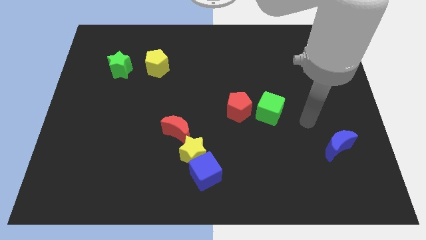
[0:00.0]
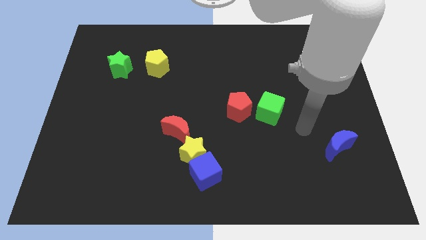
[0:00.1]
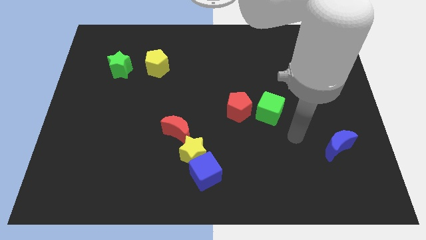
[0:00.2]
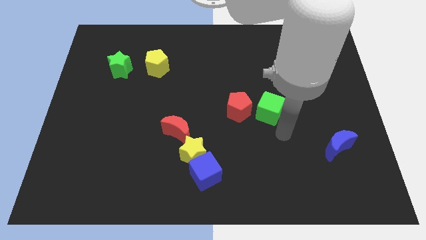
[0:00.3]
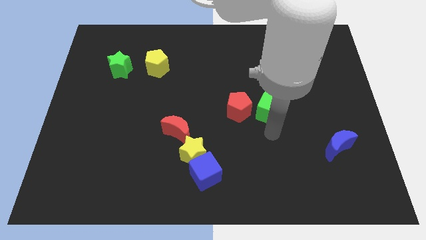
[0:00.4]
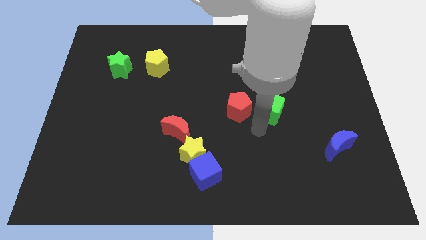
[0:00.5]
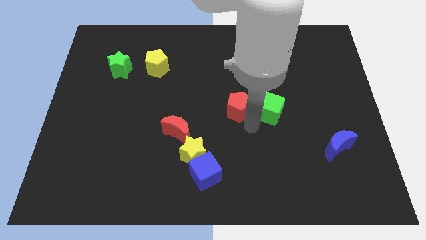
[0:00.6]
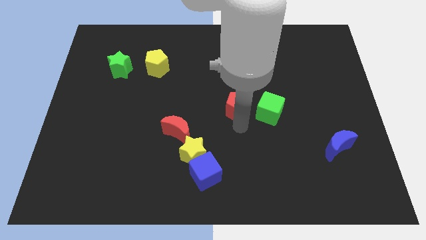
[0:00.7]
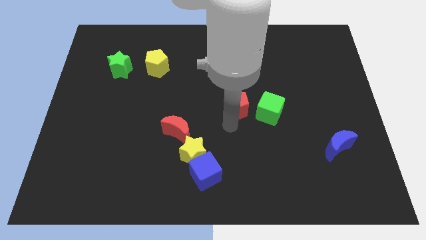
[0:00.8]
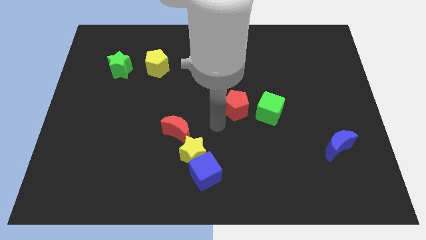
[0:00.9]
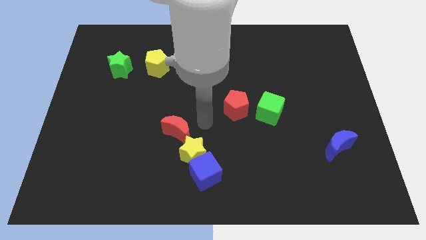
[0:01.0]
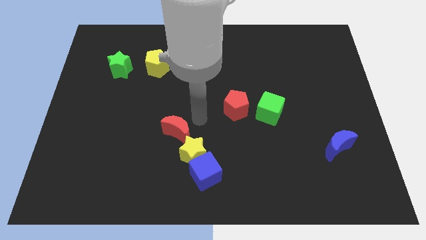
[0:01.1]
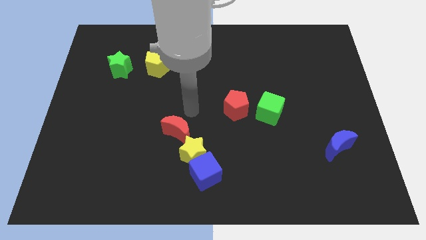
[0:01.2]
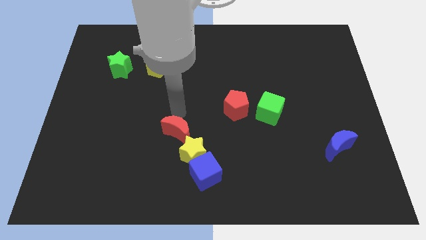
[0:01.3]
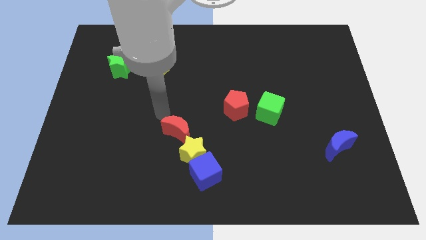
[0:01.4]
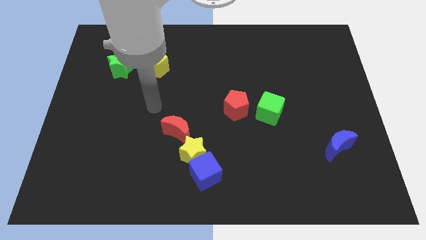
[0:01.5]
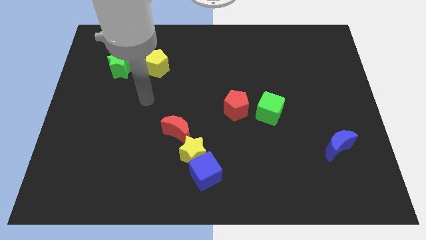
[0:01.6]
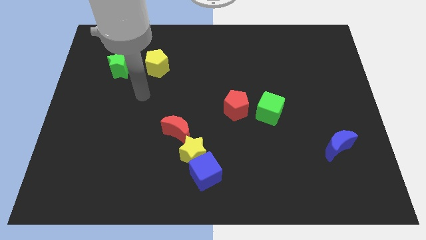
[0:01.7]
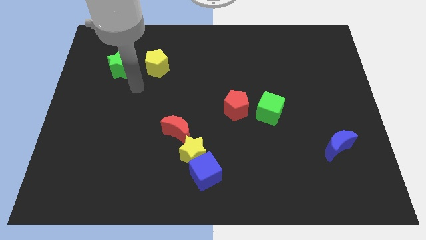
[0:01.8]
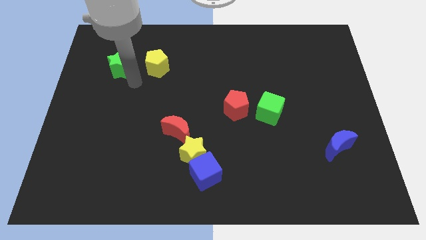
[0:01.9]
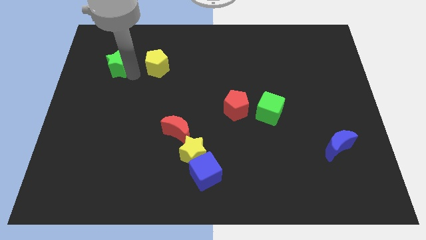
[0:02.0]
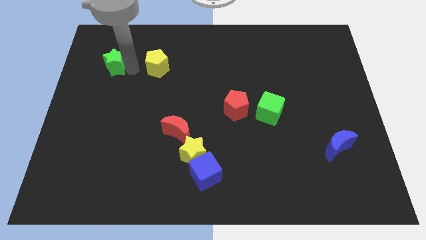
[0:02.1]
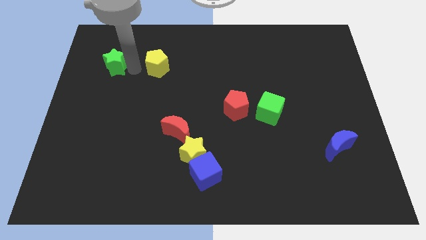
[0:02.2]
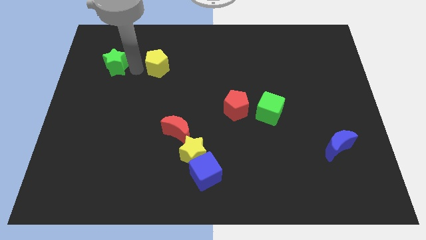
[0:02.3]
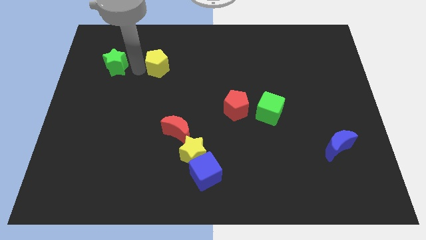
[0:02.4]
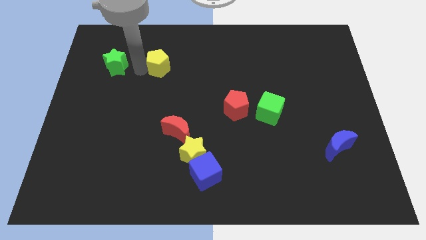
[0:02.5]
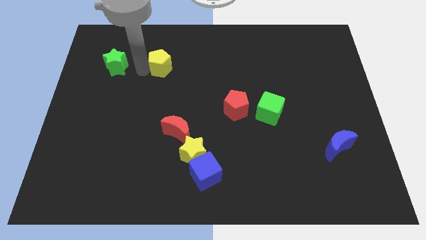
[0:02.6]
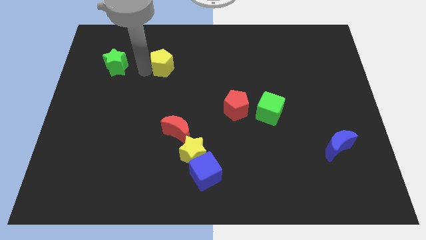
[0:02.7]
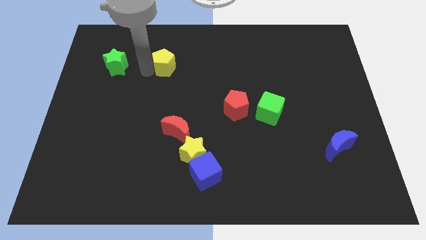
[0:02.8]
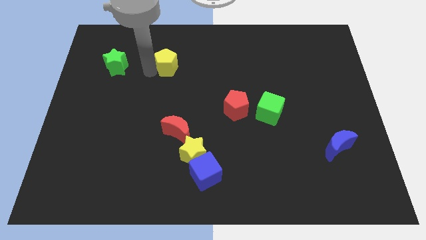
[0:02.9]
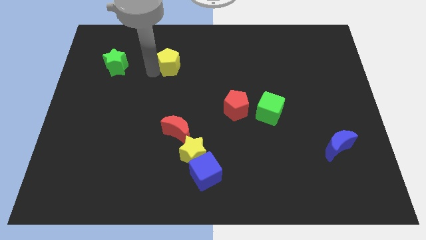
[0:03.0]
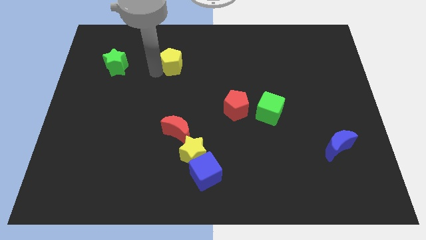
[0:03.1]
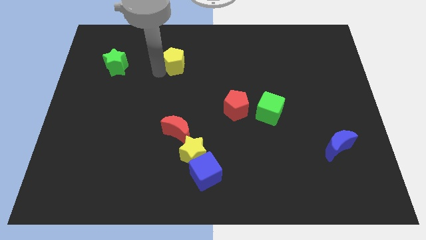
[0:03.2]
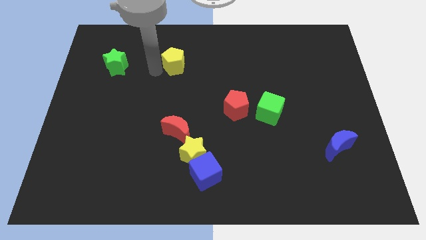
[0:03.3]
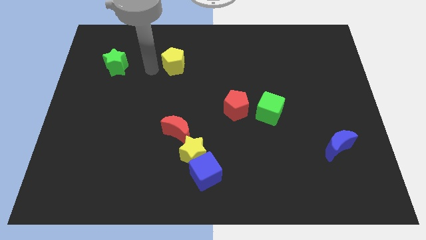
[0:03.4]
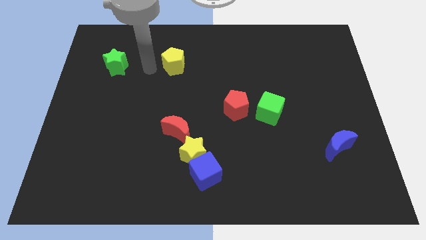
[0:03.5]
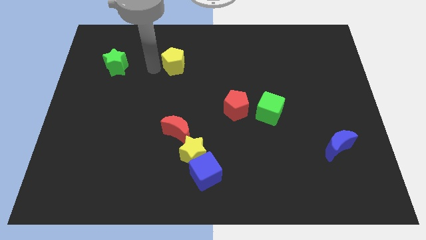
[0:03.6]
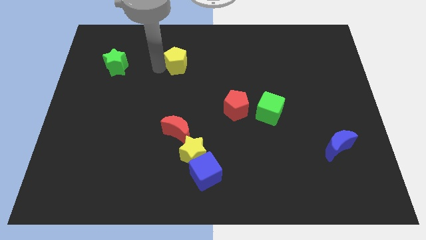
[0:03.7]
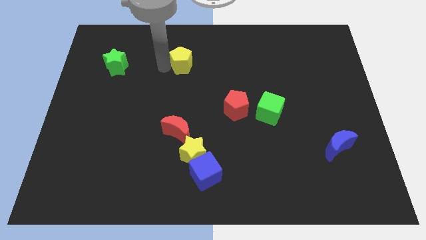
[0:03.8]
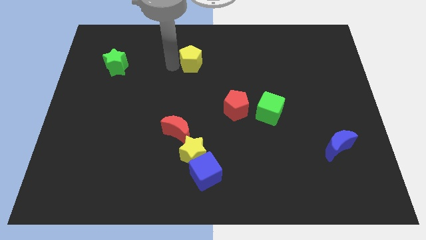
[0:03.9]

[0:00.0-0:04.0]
move the yellow pentagon right a bit

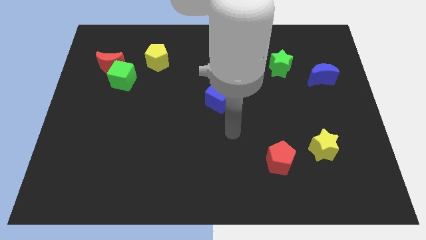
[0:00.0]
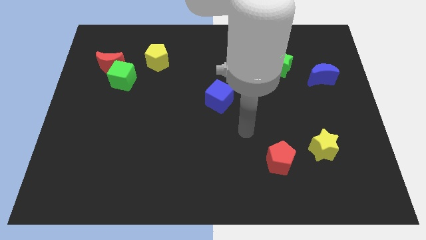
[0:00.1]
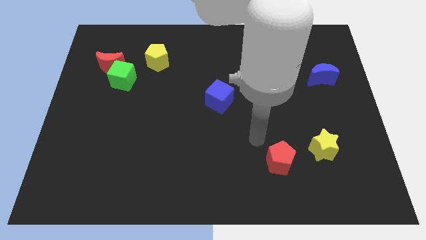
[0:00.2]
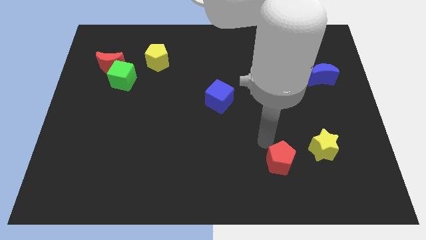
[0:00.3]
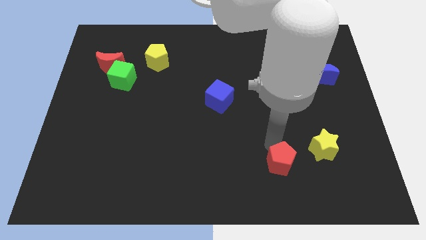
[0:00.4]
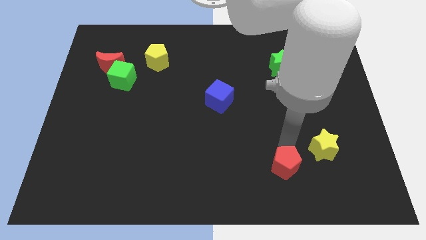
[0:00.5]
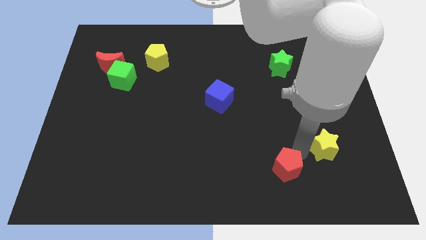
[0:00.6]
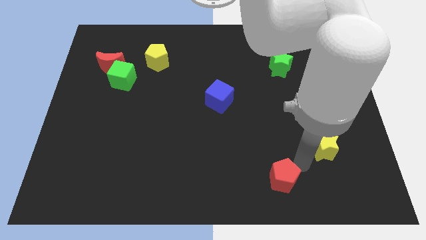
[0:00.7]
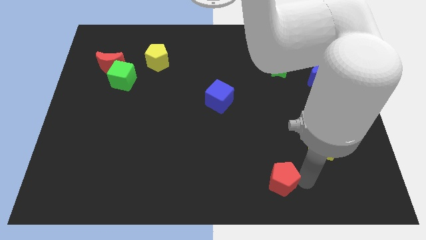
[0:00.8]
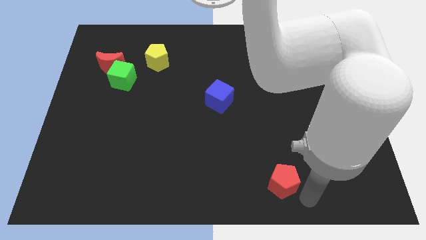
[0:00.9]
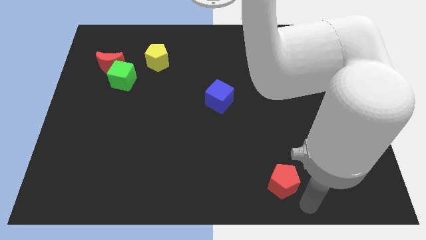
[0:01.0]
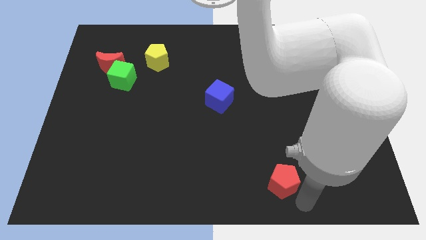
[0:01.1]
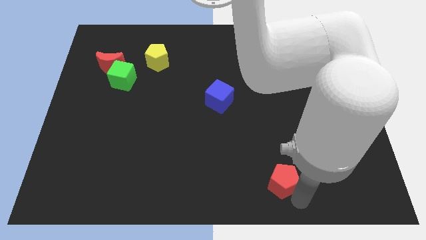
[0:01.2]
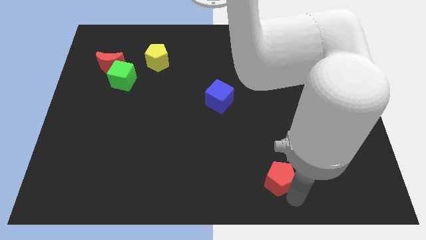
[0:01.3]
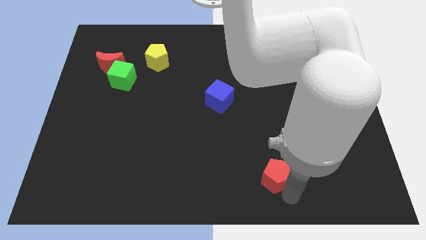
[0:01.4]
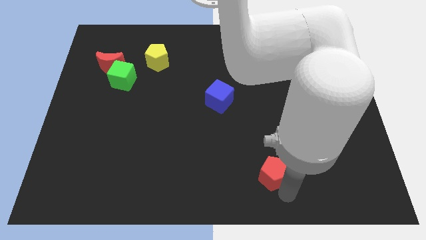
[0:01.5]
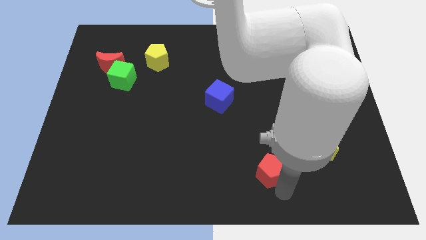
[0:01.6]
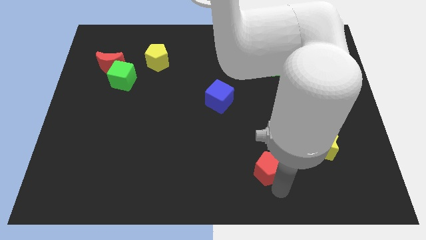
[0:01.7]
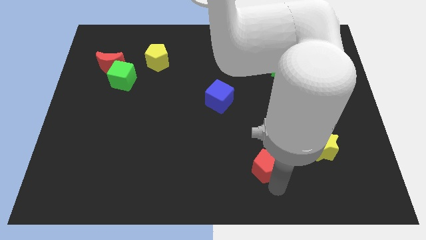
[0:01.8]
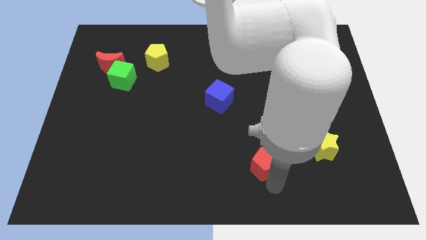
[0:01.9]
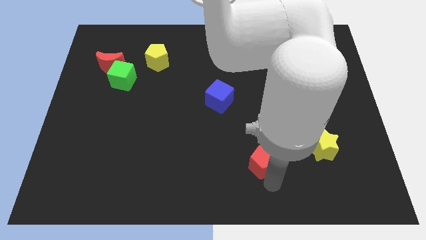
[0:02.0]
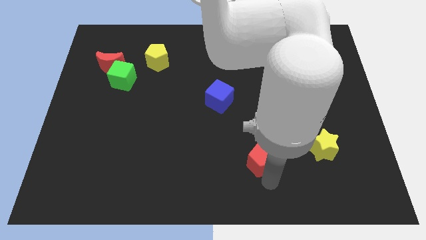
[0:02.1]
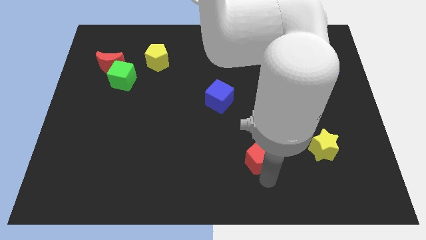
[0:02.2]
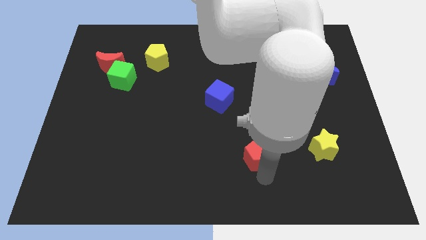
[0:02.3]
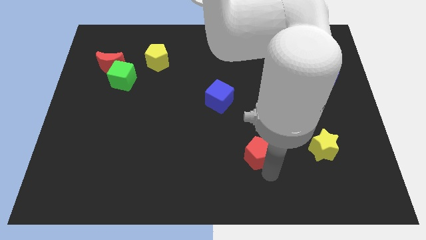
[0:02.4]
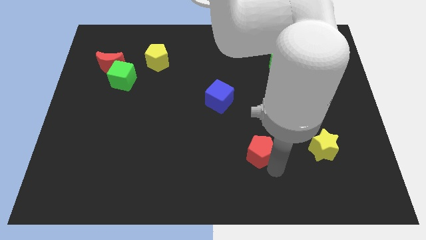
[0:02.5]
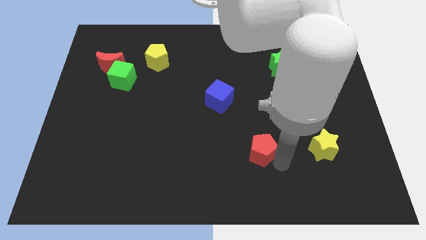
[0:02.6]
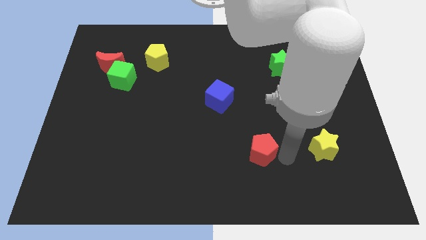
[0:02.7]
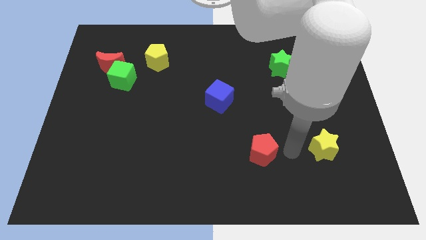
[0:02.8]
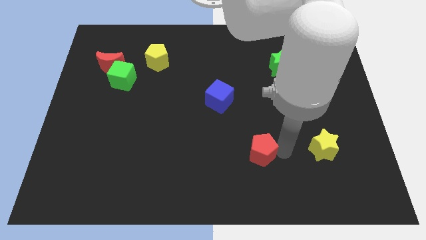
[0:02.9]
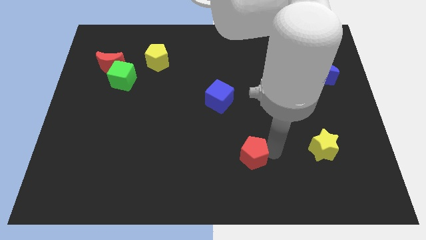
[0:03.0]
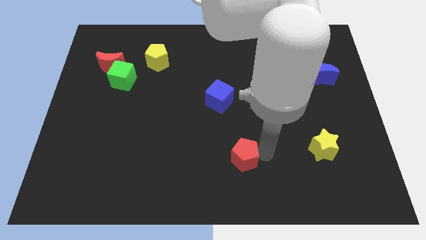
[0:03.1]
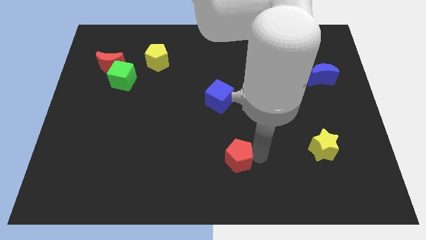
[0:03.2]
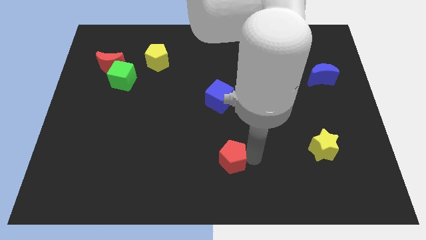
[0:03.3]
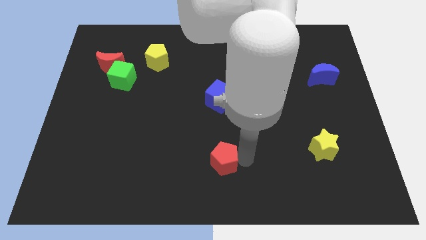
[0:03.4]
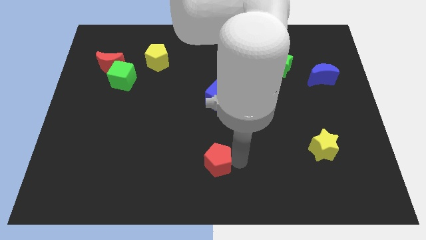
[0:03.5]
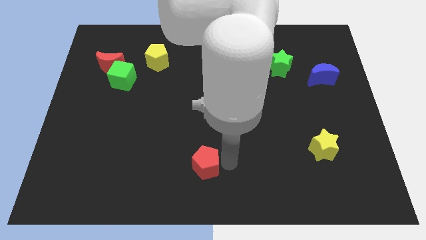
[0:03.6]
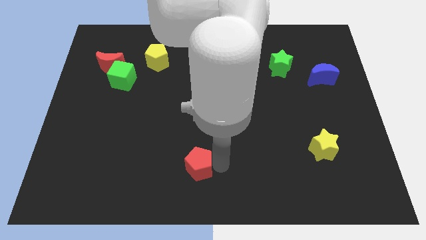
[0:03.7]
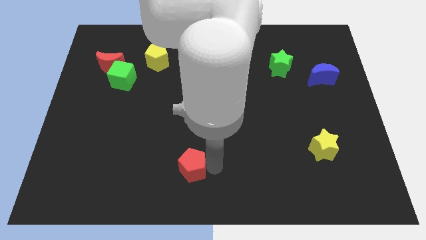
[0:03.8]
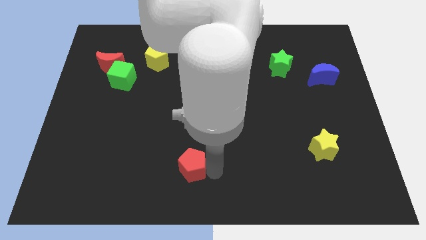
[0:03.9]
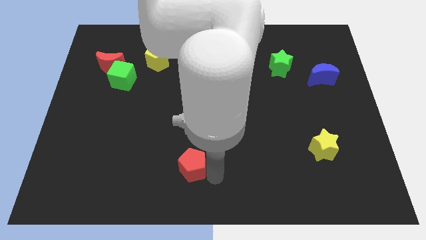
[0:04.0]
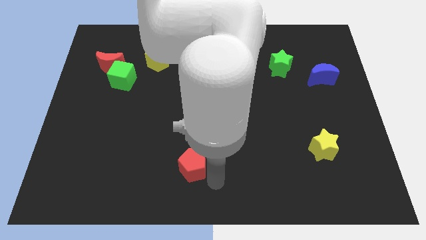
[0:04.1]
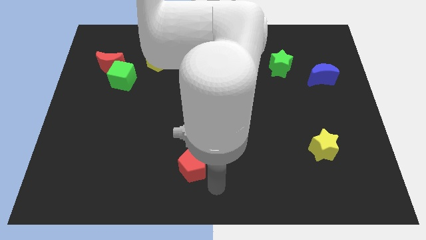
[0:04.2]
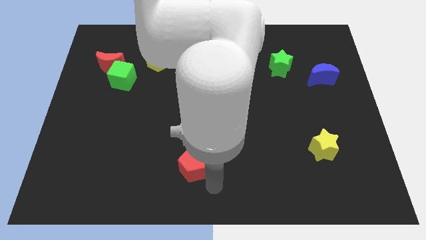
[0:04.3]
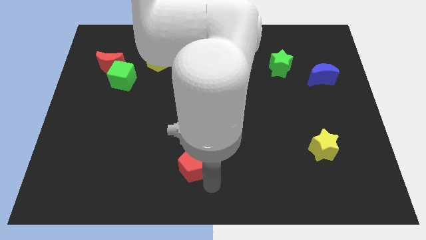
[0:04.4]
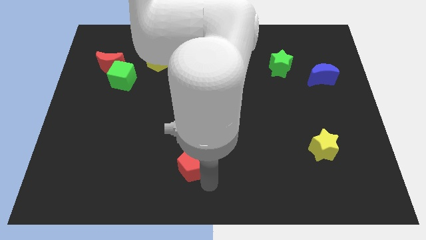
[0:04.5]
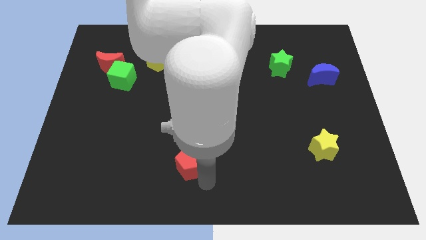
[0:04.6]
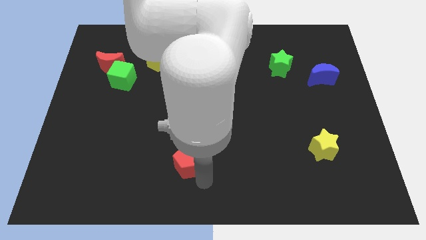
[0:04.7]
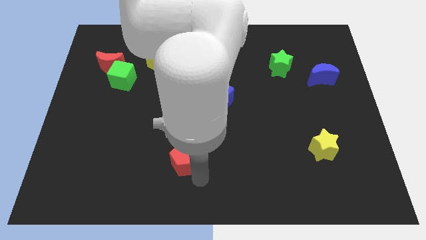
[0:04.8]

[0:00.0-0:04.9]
push the red pentagon to the left
